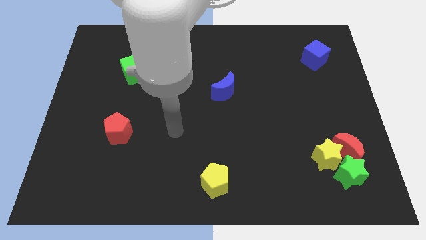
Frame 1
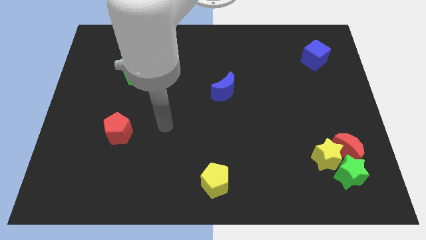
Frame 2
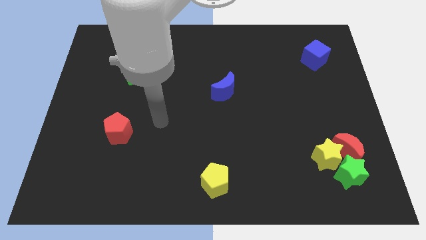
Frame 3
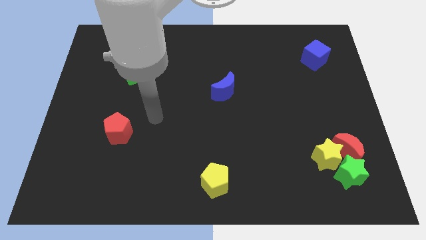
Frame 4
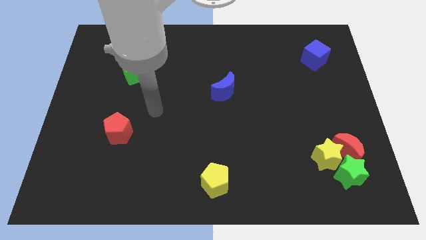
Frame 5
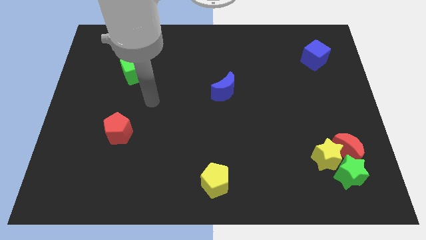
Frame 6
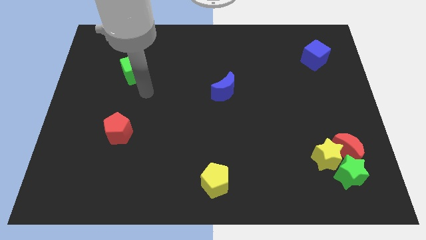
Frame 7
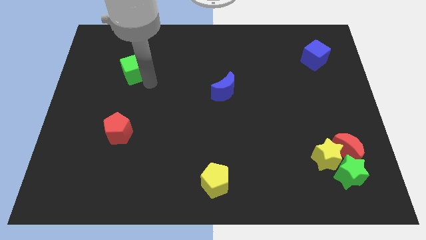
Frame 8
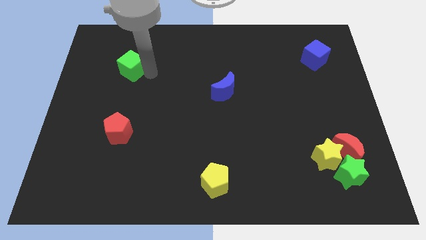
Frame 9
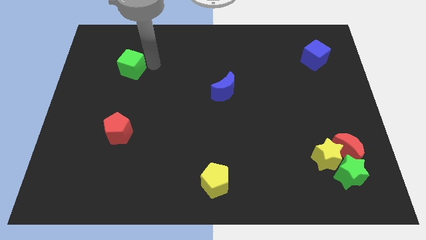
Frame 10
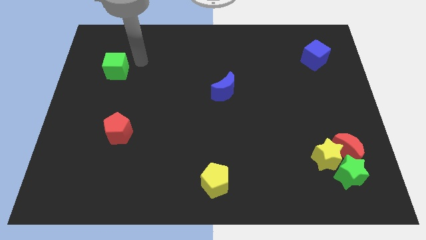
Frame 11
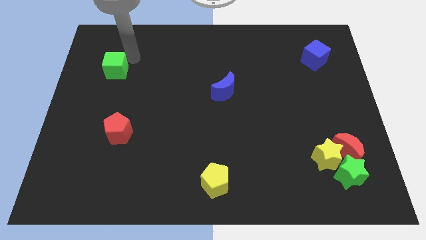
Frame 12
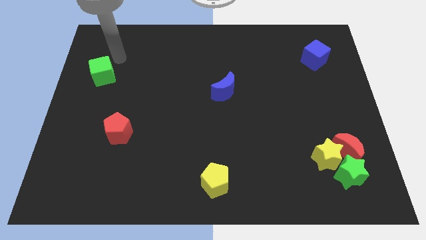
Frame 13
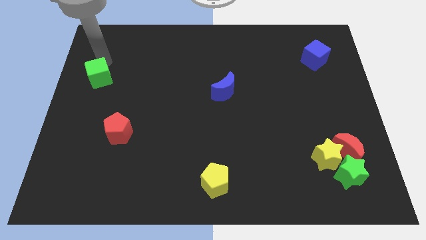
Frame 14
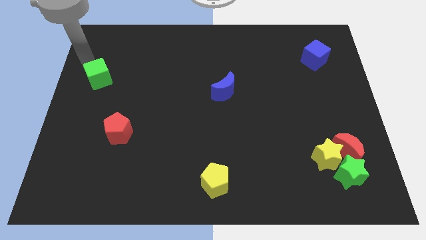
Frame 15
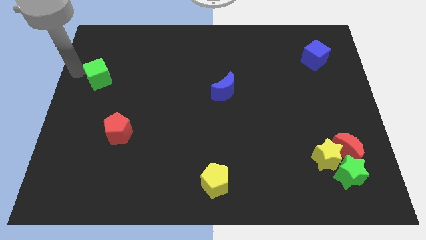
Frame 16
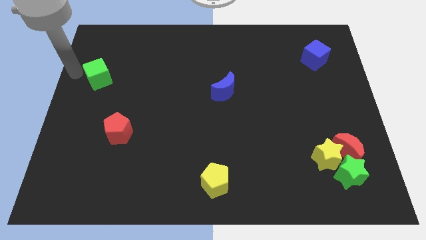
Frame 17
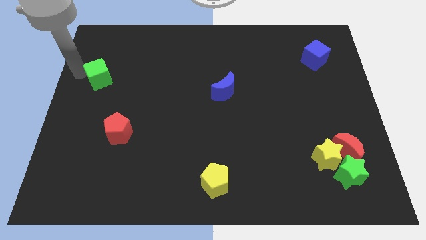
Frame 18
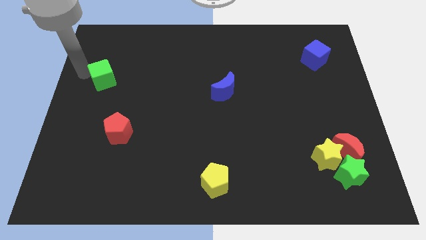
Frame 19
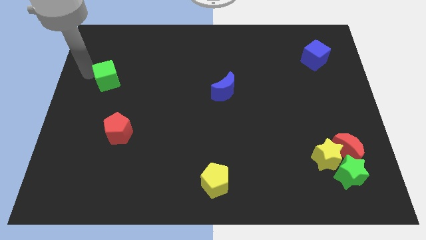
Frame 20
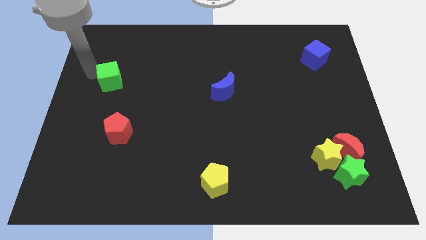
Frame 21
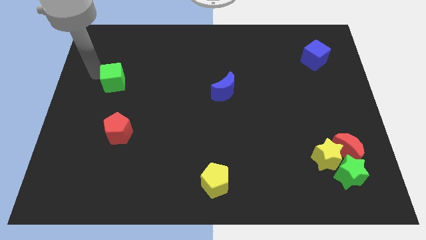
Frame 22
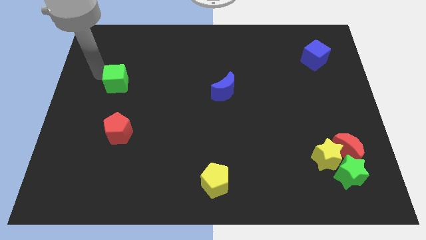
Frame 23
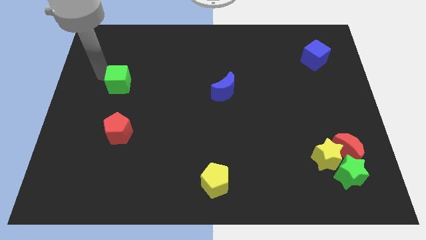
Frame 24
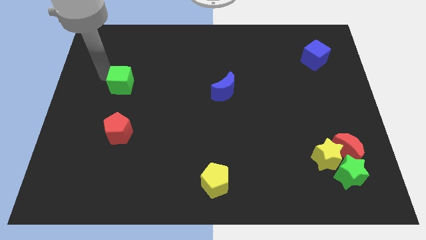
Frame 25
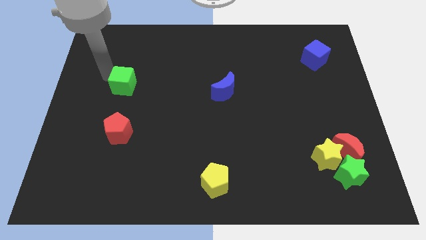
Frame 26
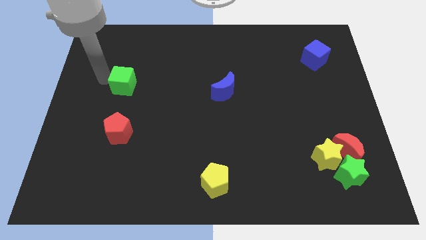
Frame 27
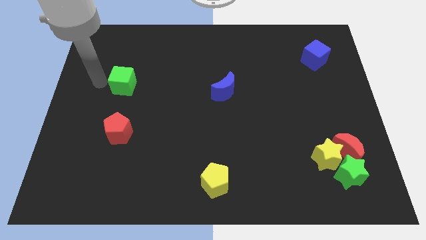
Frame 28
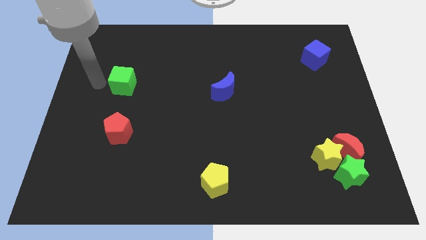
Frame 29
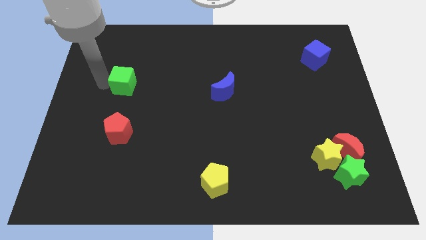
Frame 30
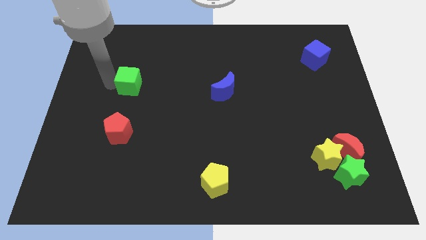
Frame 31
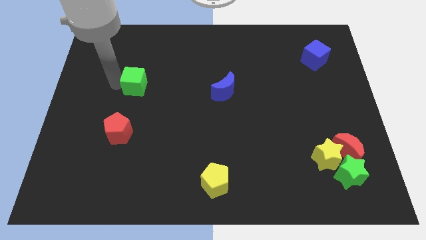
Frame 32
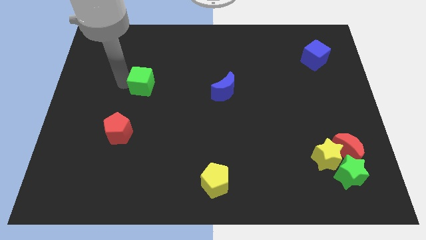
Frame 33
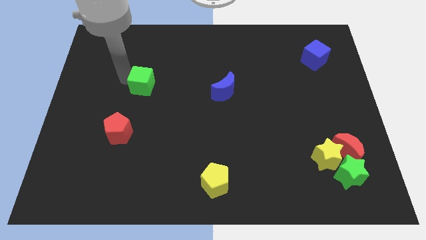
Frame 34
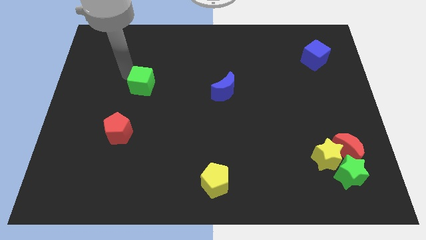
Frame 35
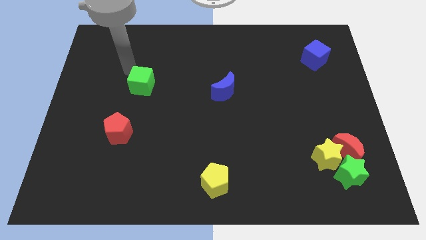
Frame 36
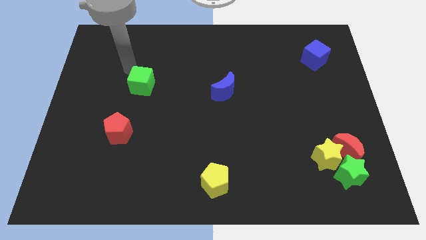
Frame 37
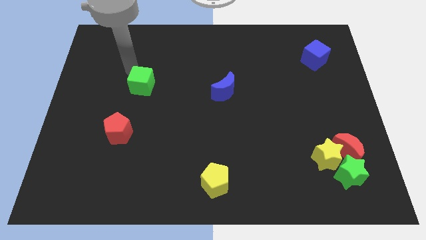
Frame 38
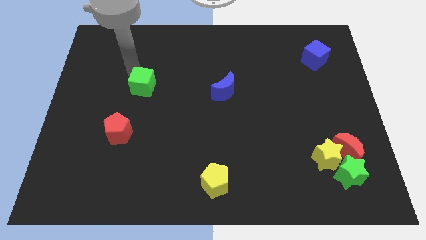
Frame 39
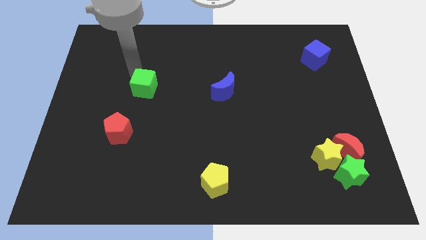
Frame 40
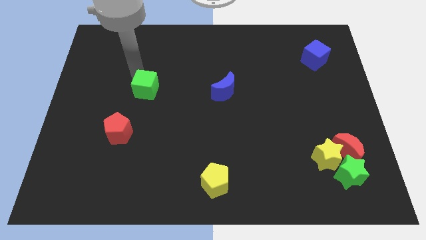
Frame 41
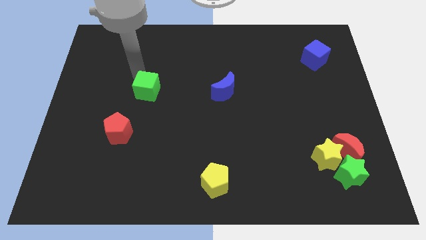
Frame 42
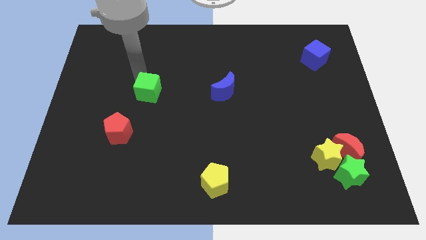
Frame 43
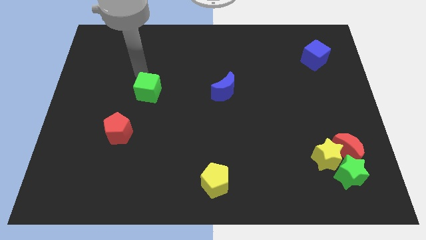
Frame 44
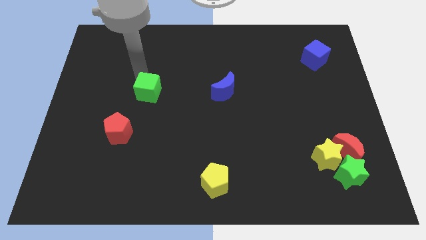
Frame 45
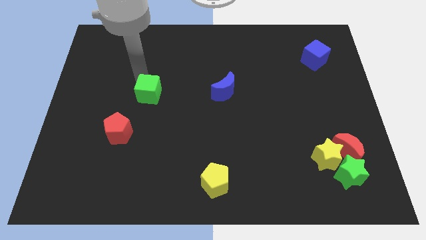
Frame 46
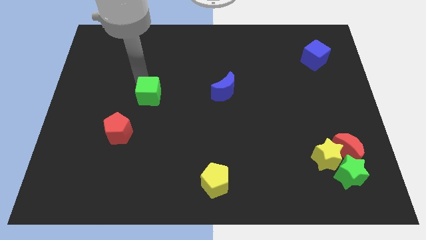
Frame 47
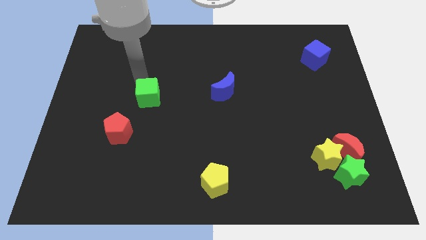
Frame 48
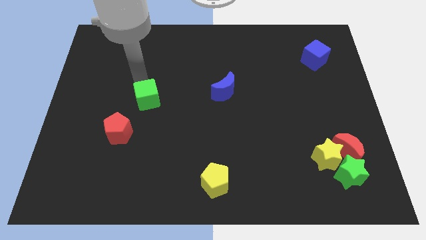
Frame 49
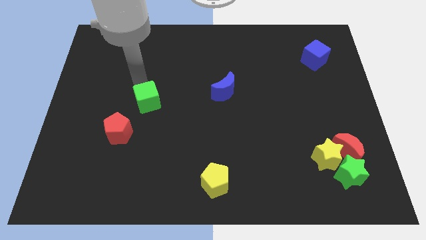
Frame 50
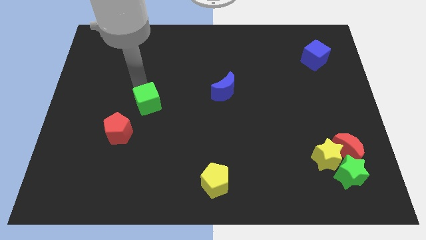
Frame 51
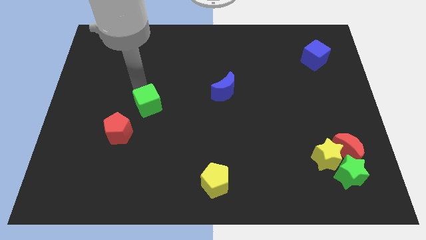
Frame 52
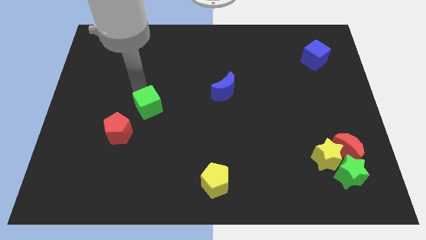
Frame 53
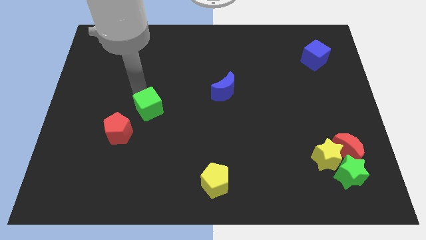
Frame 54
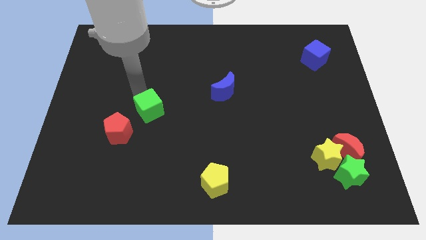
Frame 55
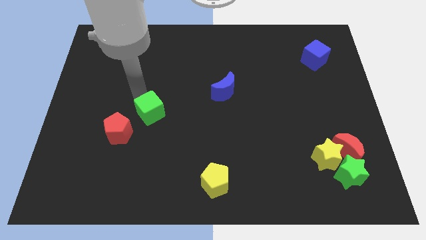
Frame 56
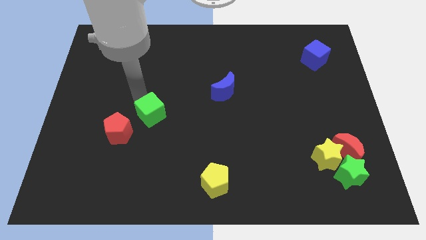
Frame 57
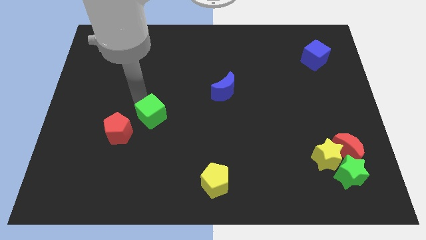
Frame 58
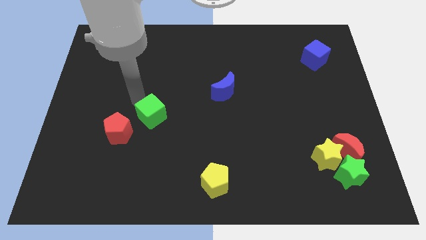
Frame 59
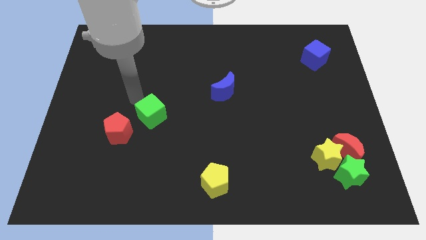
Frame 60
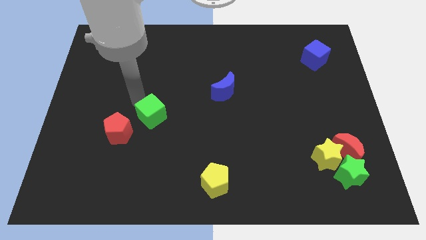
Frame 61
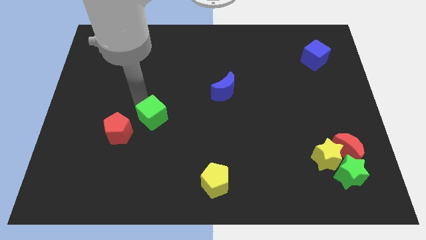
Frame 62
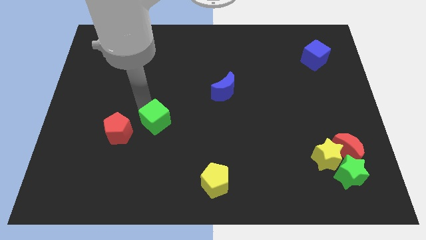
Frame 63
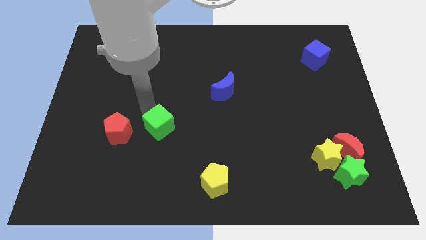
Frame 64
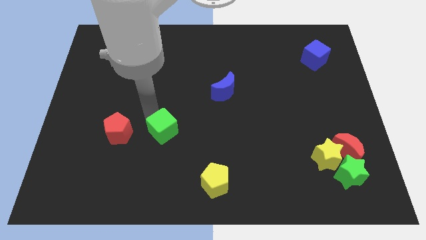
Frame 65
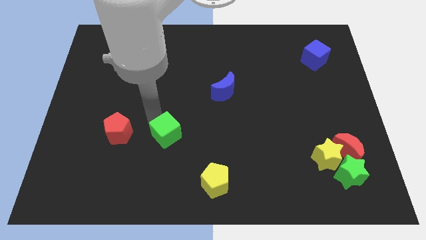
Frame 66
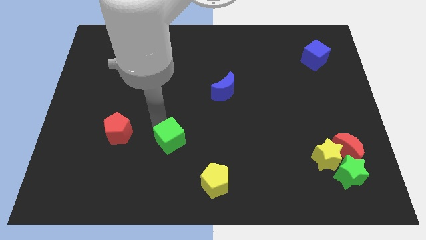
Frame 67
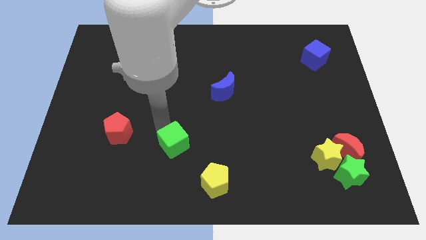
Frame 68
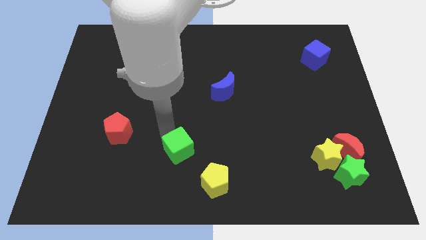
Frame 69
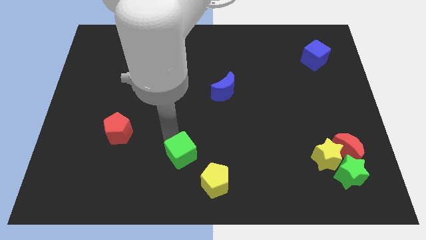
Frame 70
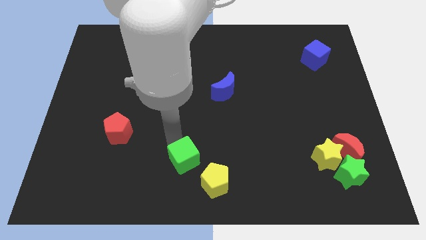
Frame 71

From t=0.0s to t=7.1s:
slide the green cube to the bottom side
